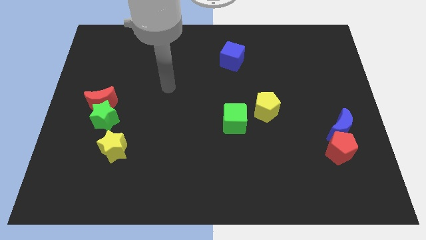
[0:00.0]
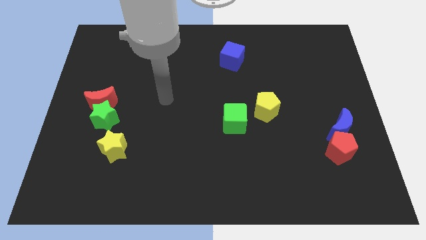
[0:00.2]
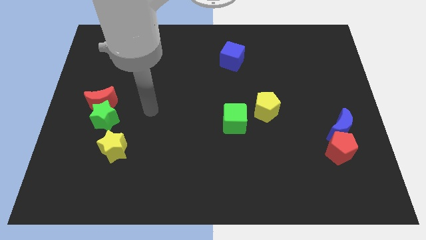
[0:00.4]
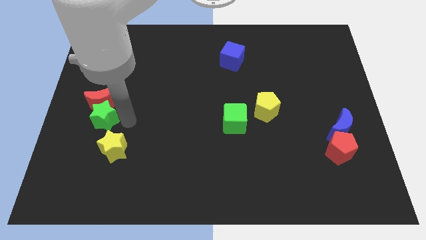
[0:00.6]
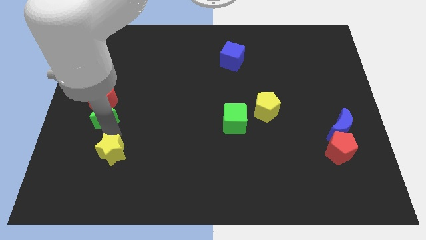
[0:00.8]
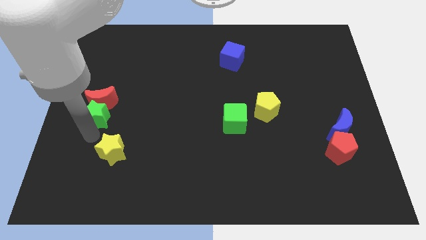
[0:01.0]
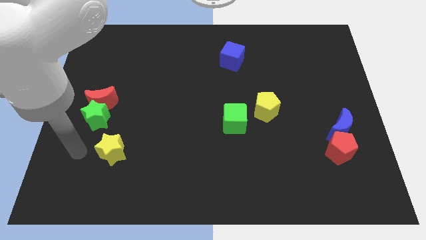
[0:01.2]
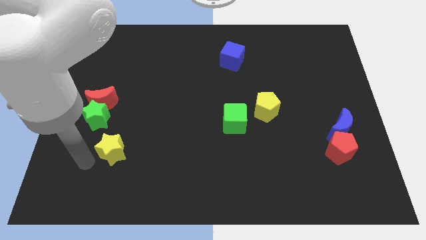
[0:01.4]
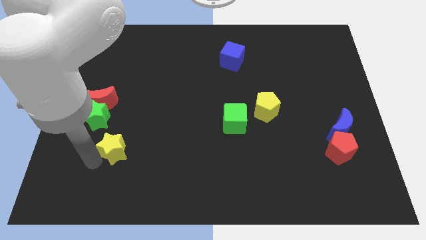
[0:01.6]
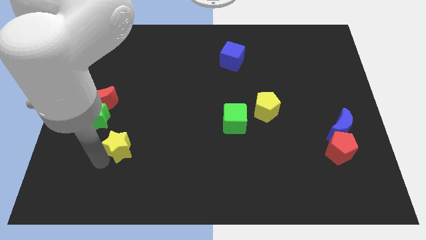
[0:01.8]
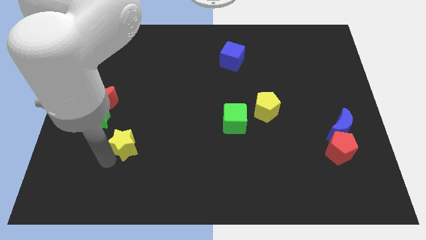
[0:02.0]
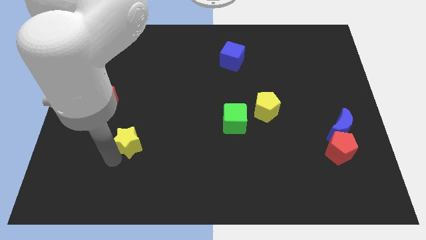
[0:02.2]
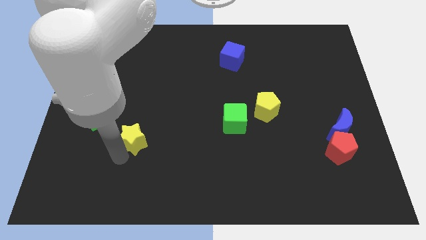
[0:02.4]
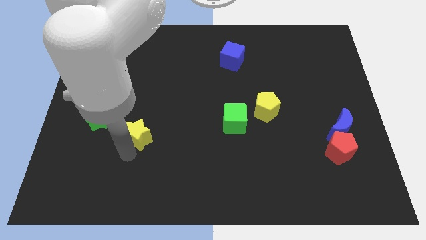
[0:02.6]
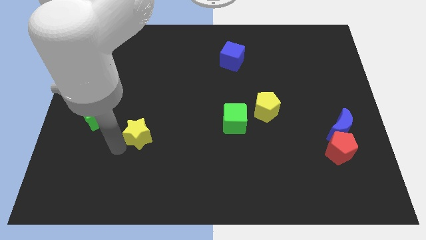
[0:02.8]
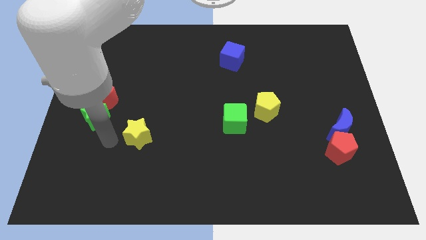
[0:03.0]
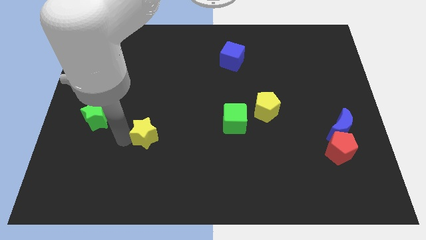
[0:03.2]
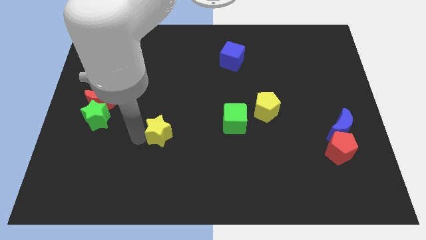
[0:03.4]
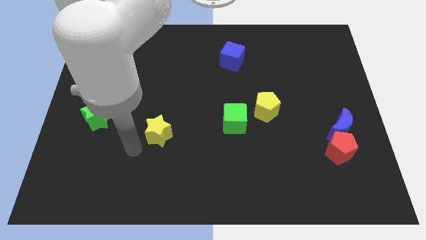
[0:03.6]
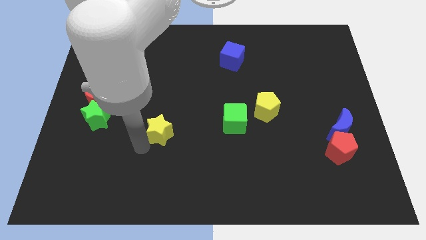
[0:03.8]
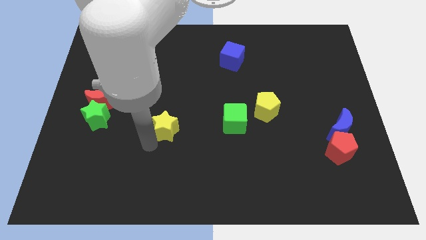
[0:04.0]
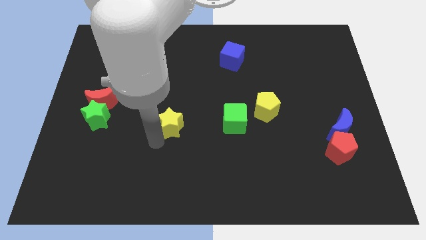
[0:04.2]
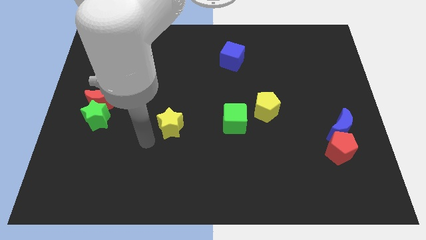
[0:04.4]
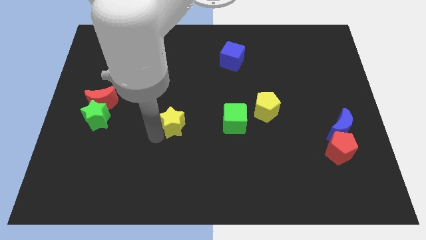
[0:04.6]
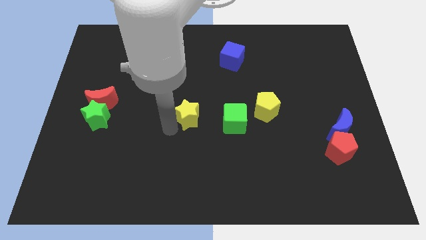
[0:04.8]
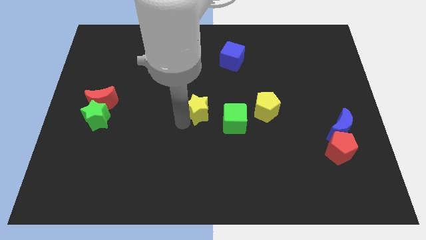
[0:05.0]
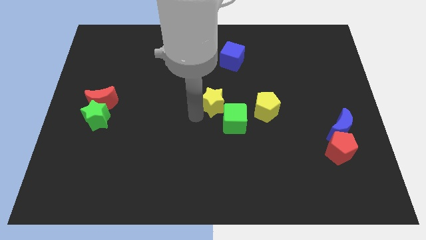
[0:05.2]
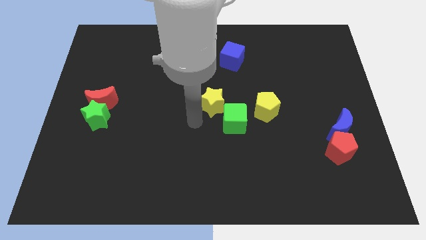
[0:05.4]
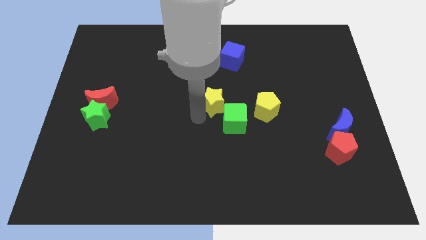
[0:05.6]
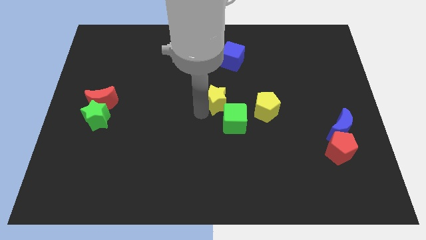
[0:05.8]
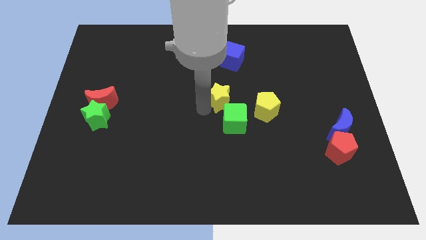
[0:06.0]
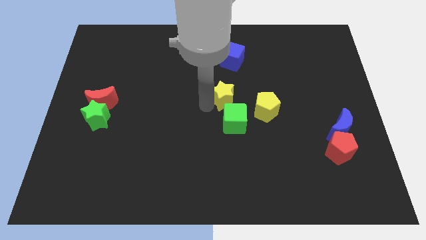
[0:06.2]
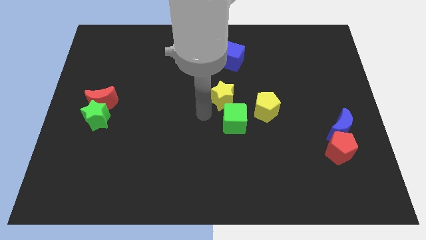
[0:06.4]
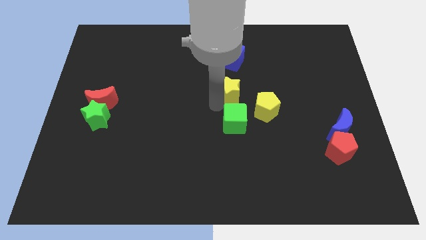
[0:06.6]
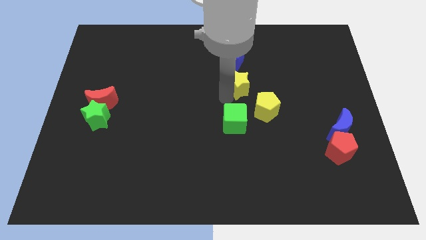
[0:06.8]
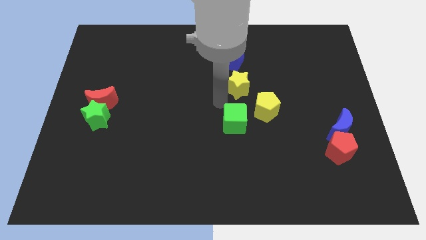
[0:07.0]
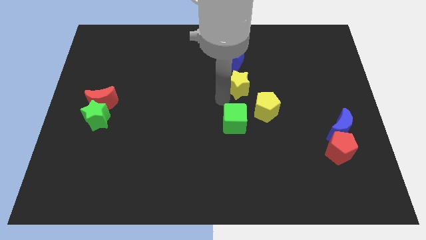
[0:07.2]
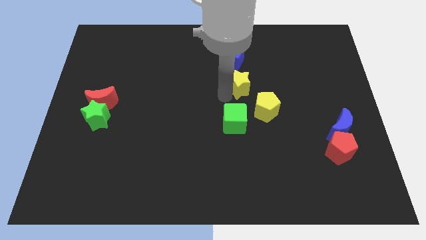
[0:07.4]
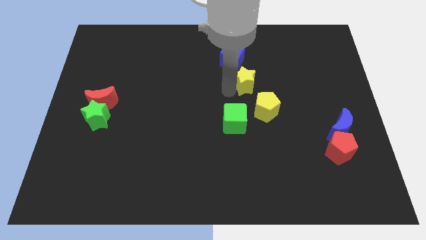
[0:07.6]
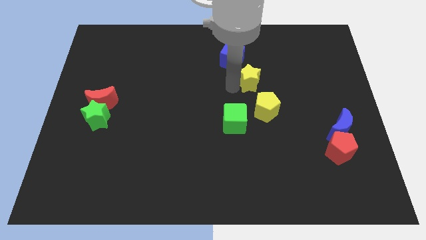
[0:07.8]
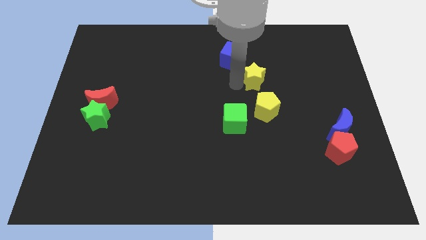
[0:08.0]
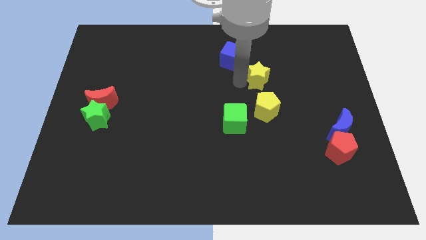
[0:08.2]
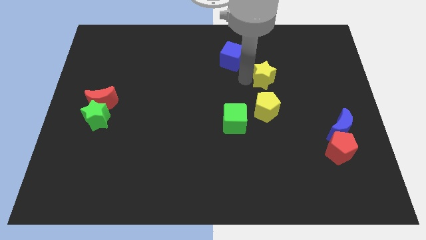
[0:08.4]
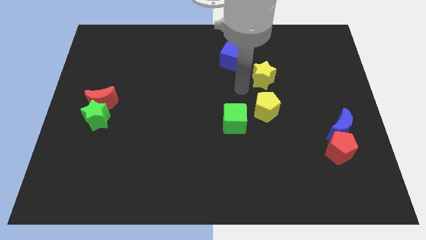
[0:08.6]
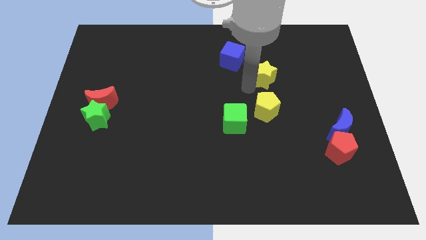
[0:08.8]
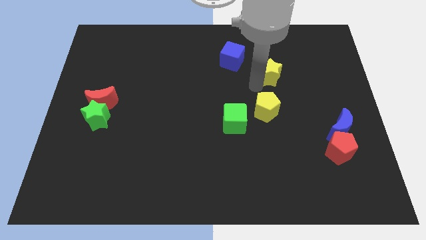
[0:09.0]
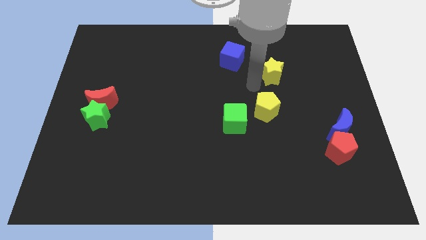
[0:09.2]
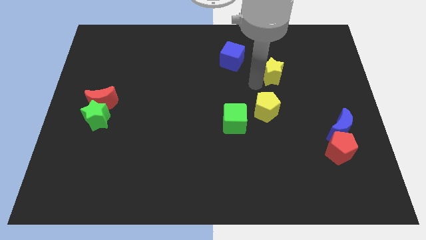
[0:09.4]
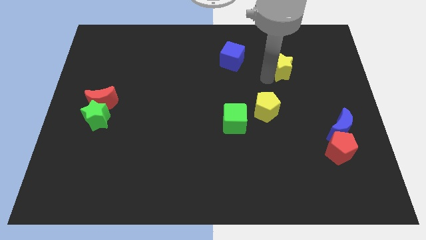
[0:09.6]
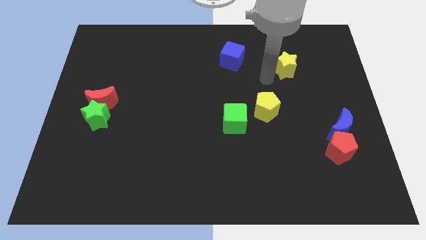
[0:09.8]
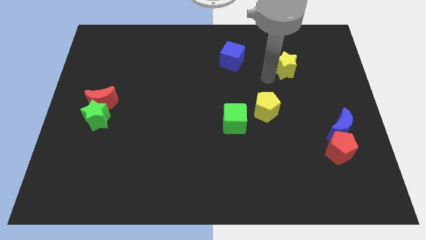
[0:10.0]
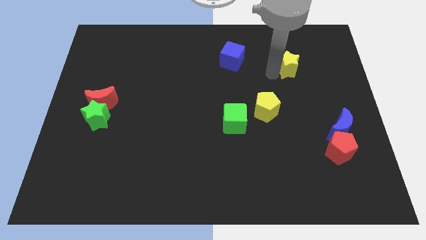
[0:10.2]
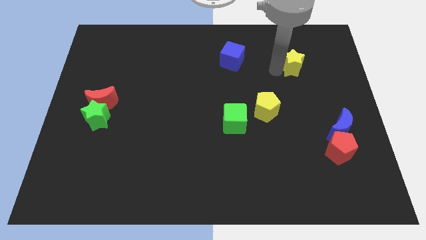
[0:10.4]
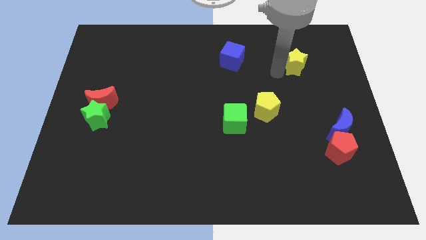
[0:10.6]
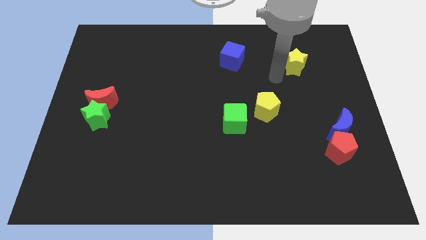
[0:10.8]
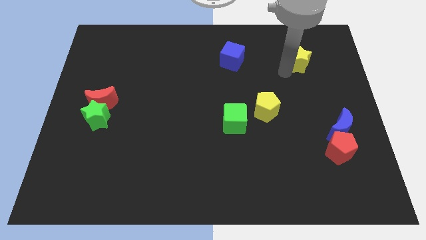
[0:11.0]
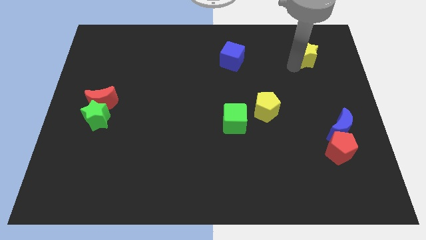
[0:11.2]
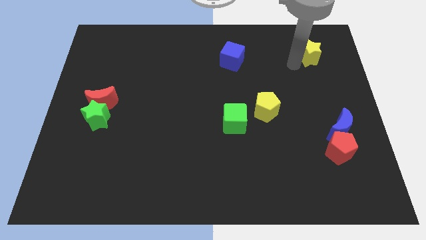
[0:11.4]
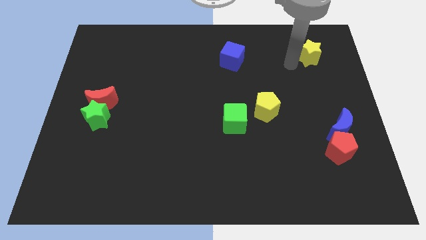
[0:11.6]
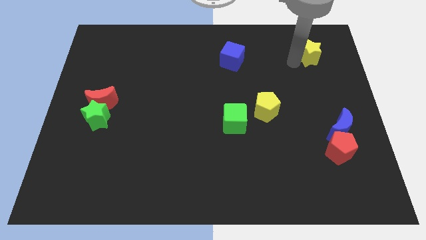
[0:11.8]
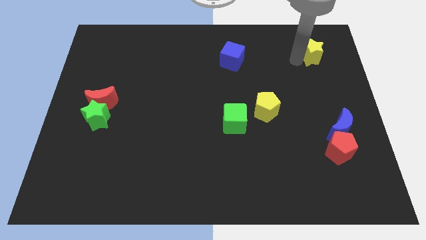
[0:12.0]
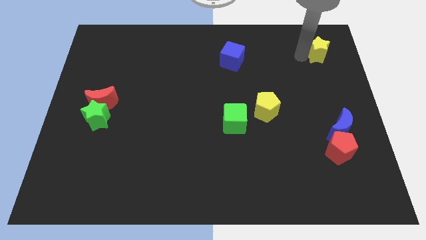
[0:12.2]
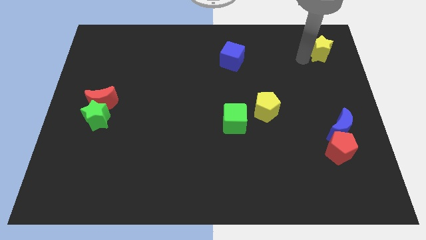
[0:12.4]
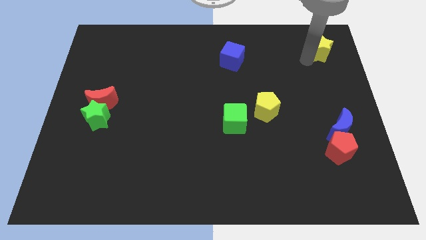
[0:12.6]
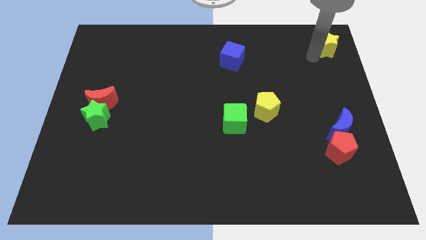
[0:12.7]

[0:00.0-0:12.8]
put the yellow star to the upper right corner

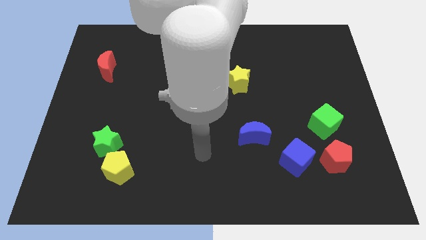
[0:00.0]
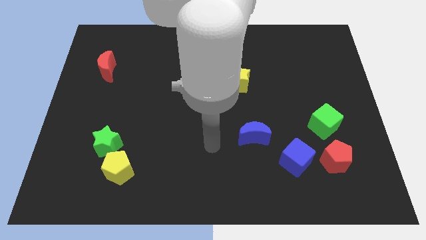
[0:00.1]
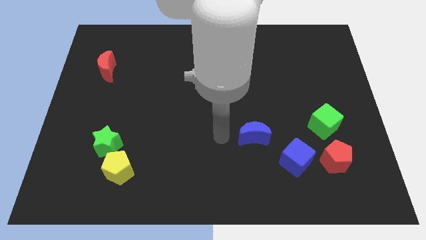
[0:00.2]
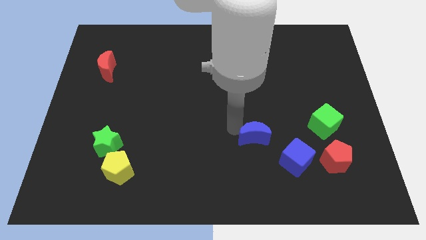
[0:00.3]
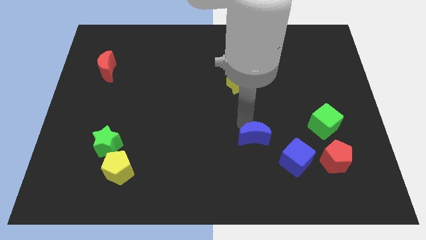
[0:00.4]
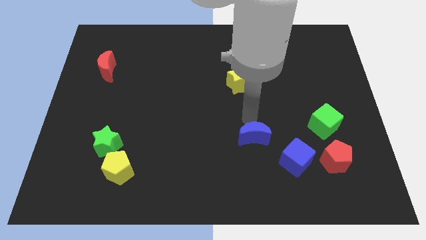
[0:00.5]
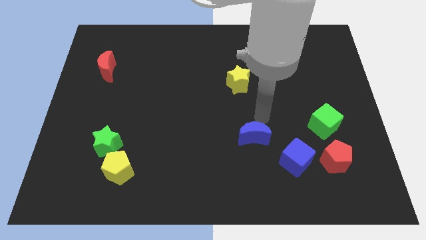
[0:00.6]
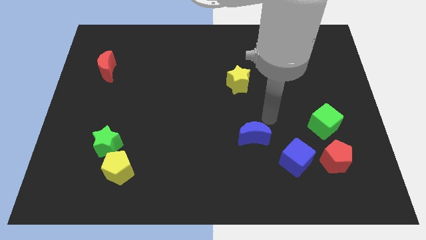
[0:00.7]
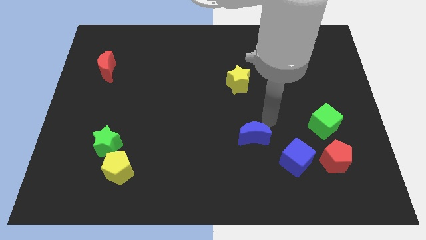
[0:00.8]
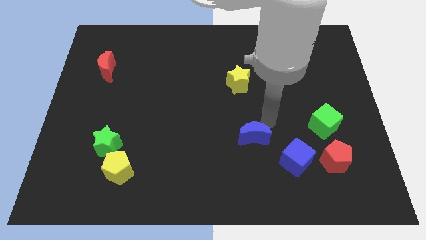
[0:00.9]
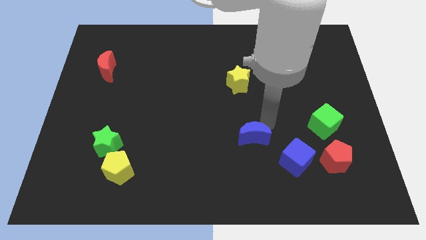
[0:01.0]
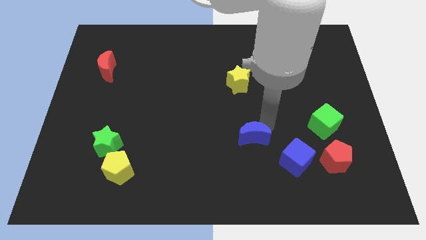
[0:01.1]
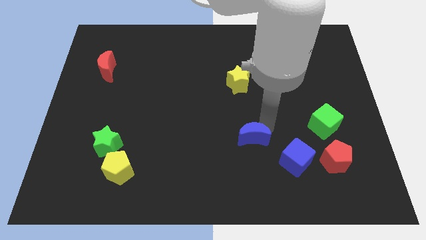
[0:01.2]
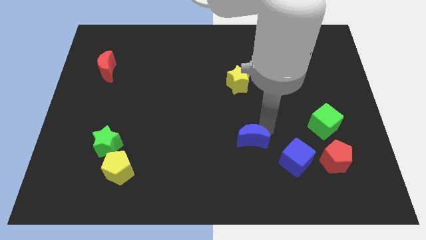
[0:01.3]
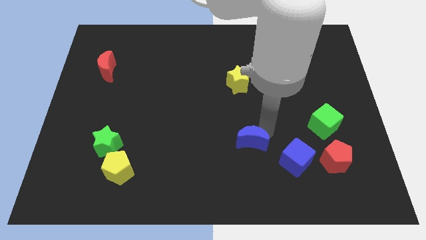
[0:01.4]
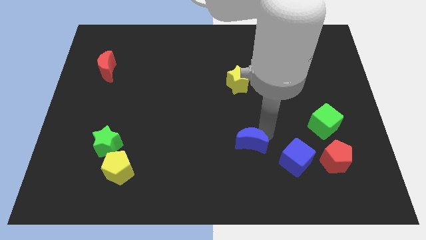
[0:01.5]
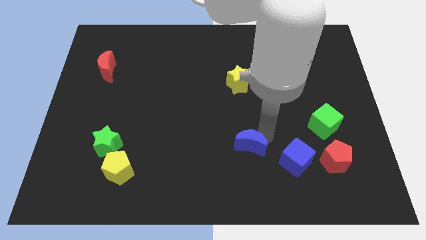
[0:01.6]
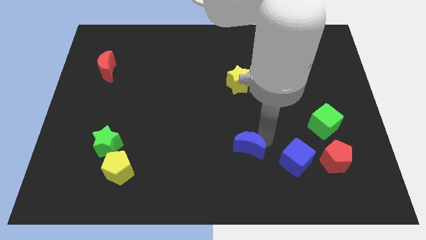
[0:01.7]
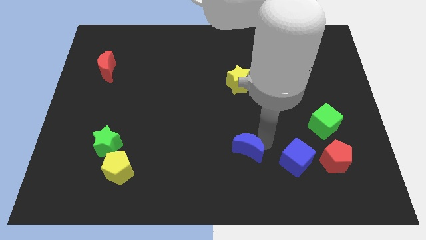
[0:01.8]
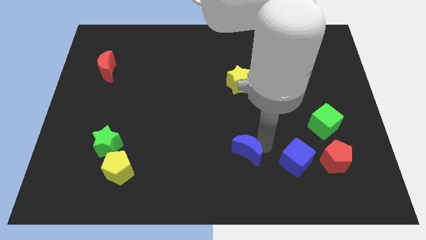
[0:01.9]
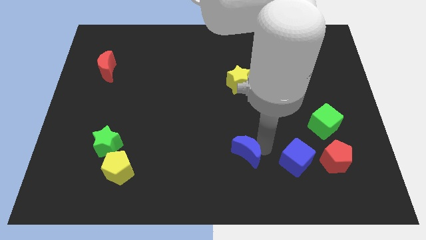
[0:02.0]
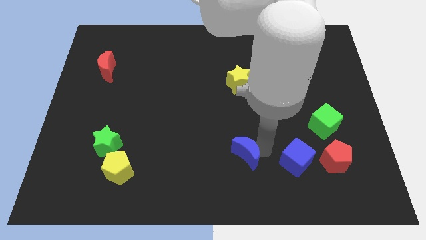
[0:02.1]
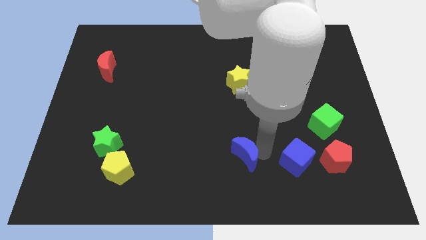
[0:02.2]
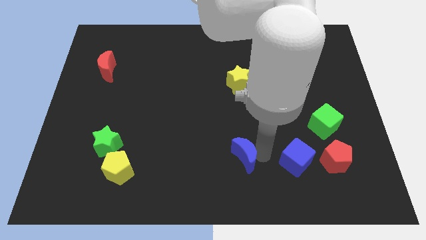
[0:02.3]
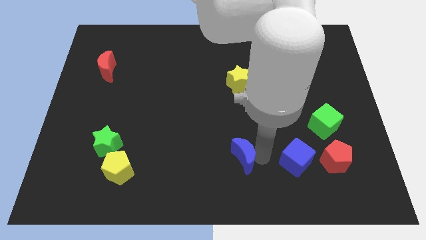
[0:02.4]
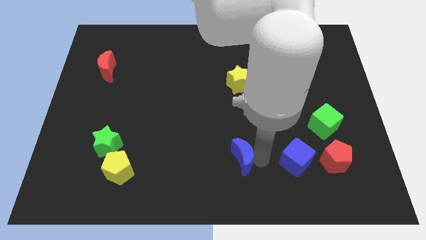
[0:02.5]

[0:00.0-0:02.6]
put the blue moon to the bottom
